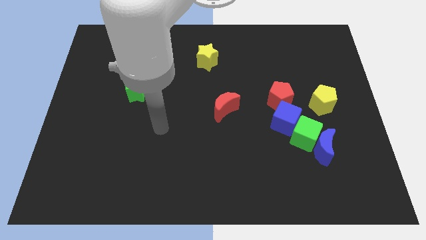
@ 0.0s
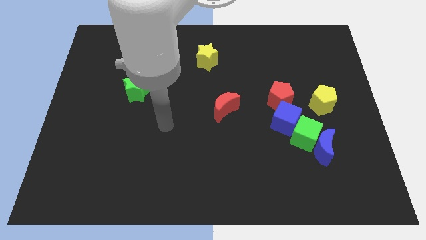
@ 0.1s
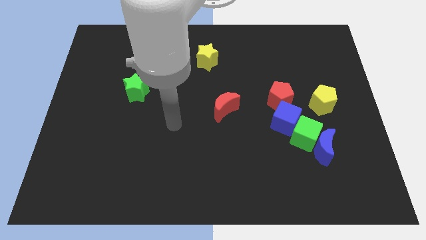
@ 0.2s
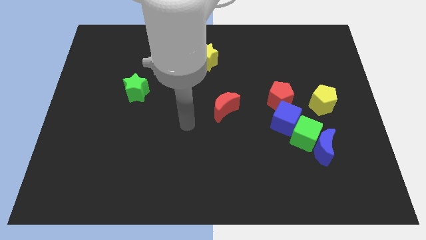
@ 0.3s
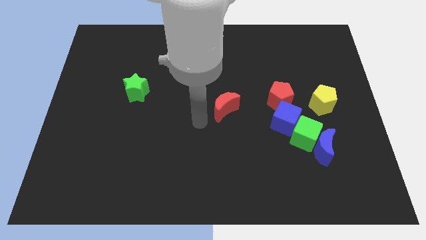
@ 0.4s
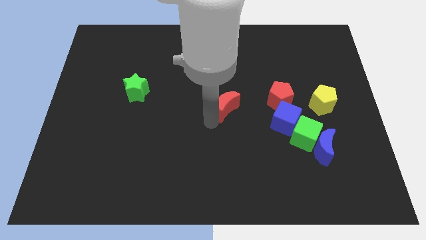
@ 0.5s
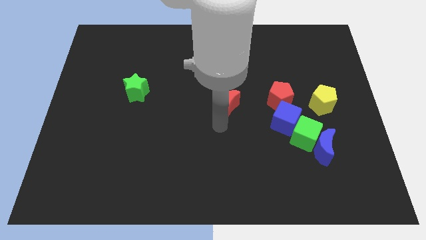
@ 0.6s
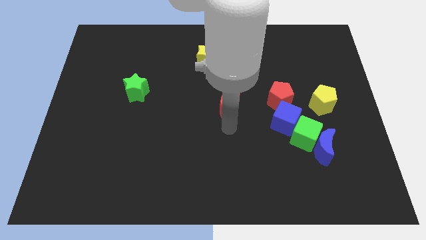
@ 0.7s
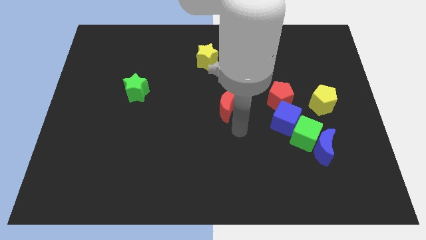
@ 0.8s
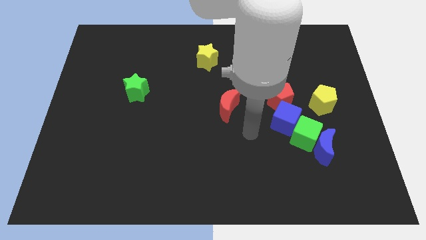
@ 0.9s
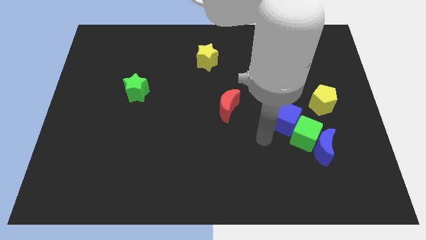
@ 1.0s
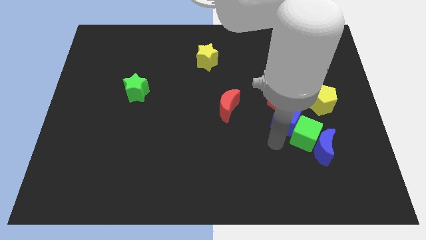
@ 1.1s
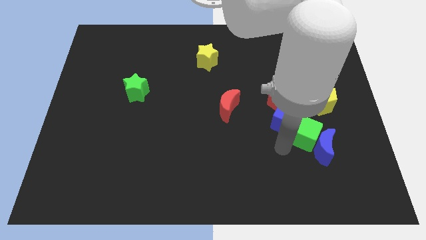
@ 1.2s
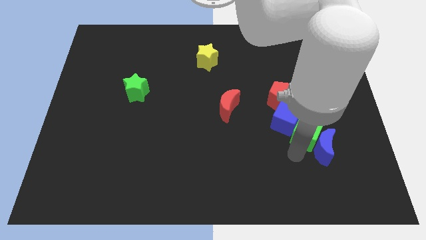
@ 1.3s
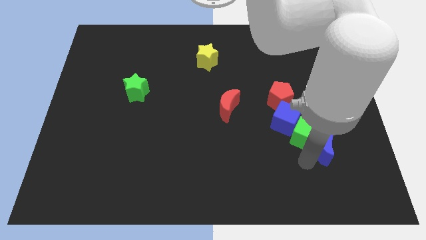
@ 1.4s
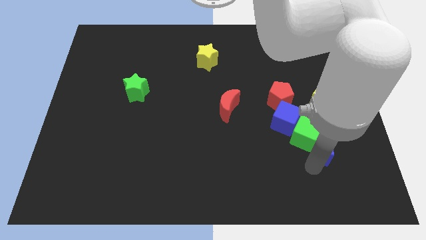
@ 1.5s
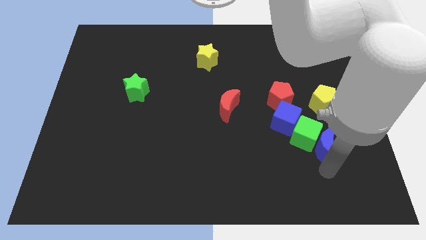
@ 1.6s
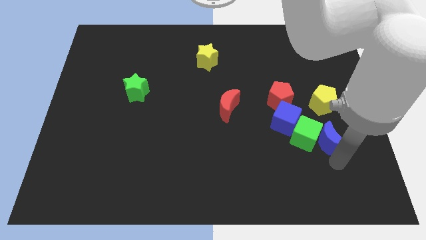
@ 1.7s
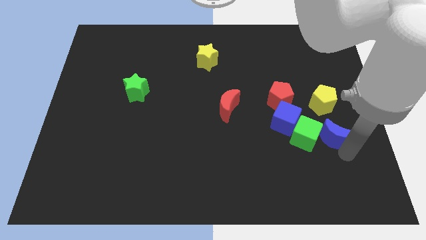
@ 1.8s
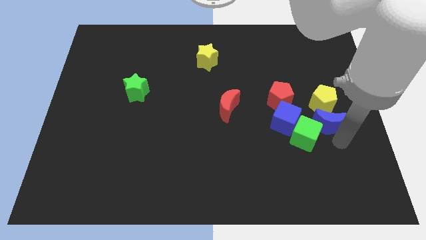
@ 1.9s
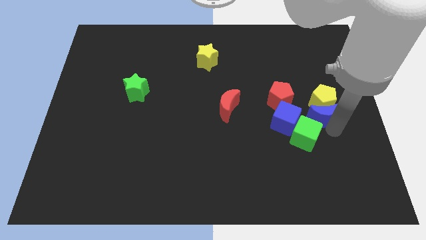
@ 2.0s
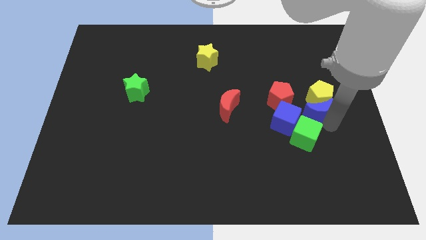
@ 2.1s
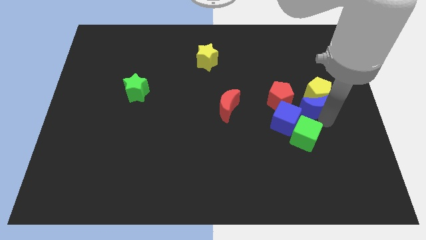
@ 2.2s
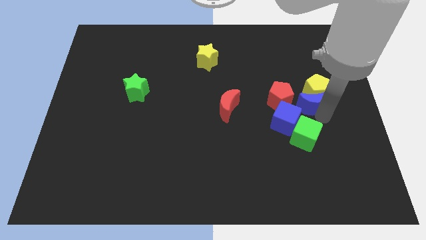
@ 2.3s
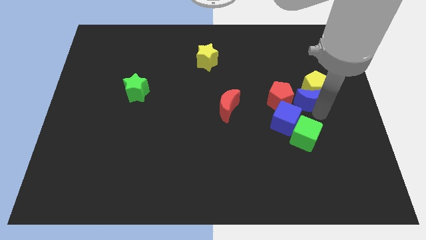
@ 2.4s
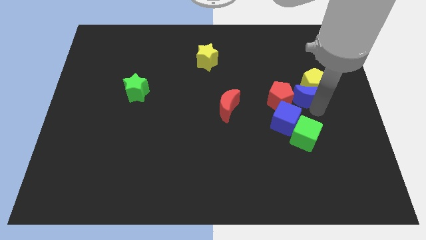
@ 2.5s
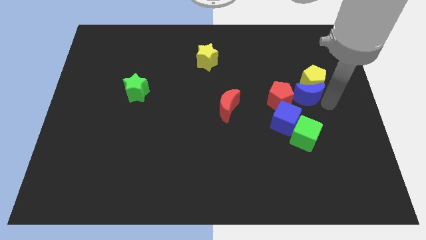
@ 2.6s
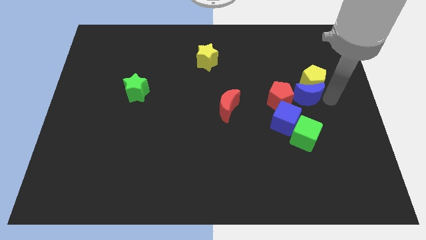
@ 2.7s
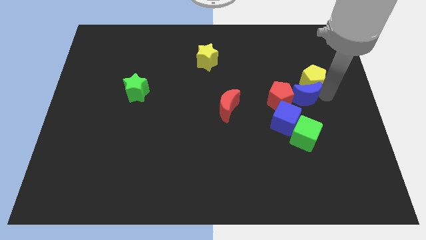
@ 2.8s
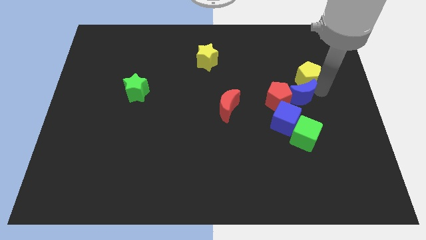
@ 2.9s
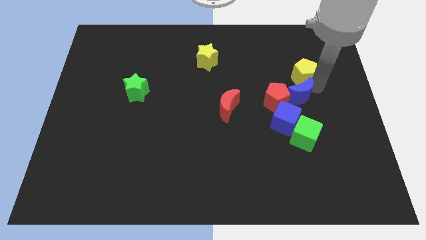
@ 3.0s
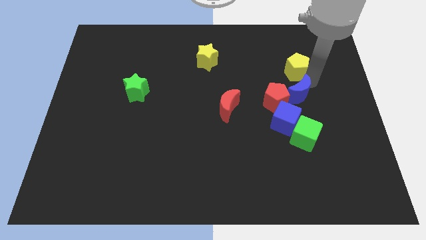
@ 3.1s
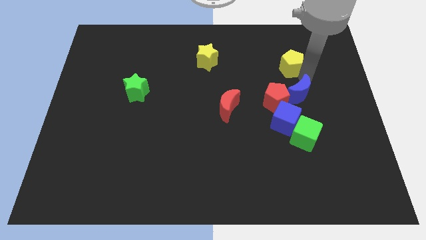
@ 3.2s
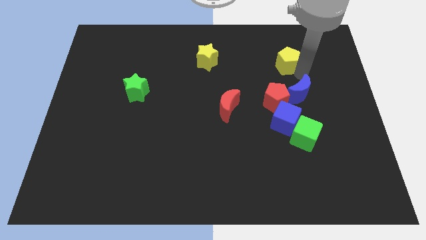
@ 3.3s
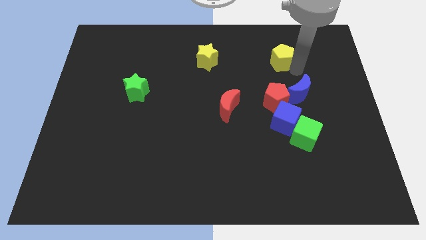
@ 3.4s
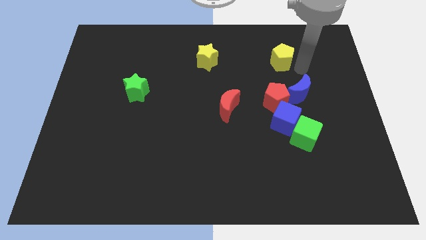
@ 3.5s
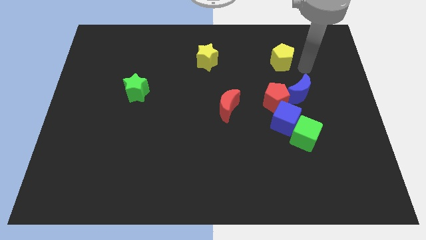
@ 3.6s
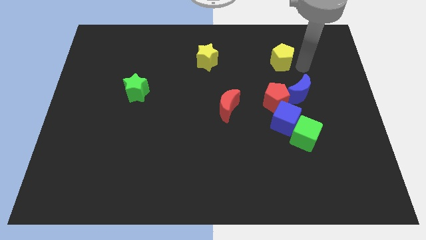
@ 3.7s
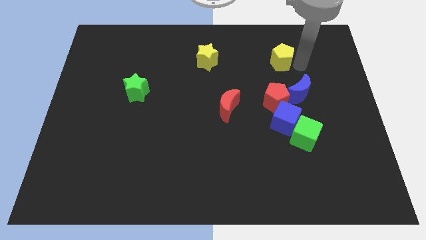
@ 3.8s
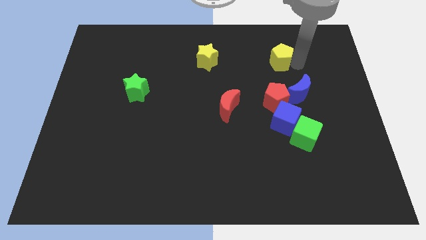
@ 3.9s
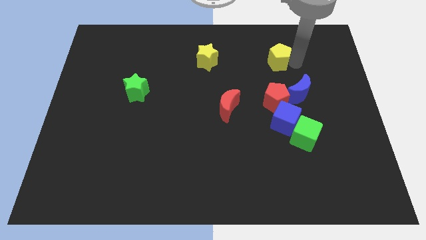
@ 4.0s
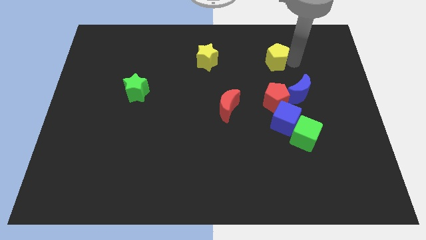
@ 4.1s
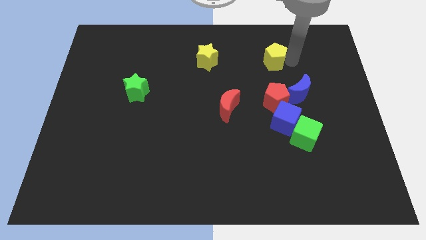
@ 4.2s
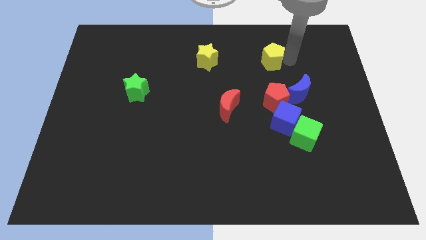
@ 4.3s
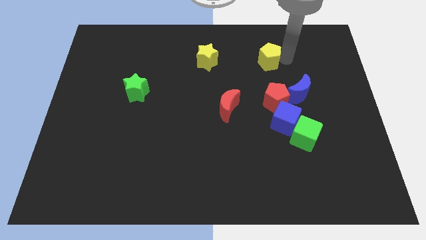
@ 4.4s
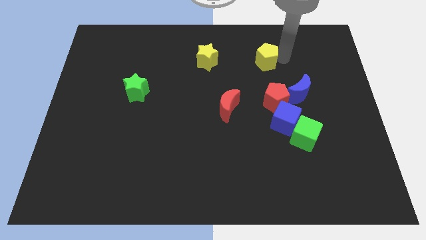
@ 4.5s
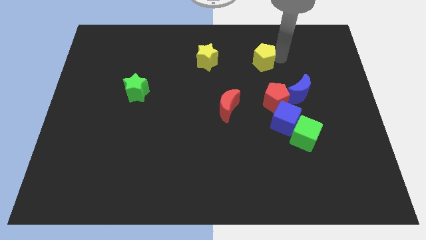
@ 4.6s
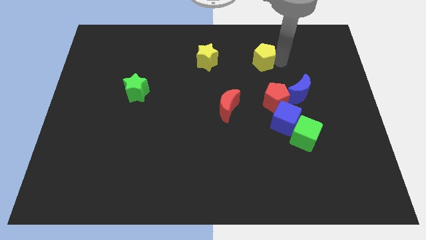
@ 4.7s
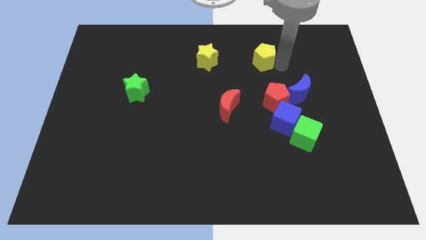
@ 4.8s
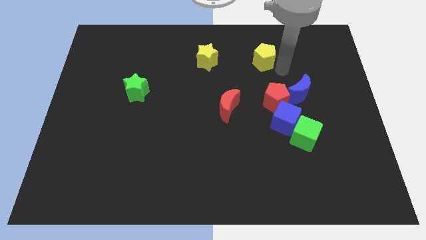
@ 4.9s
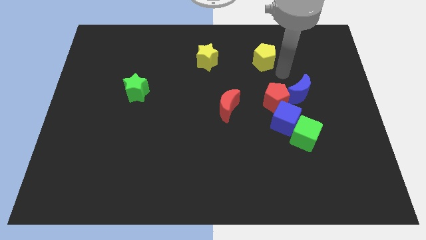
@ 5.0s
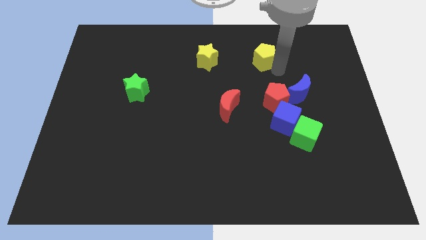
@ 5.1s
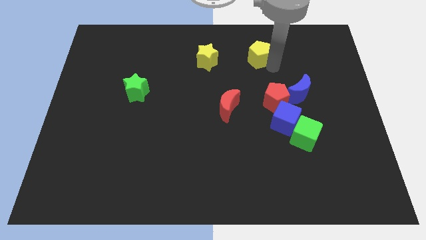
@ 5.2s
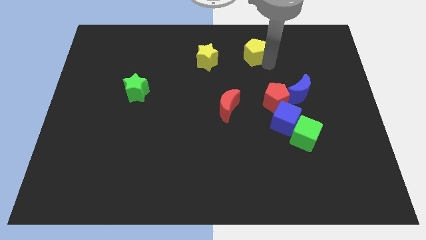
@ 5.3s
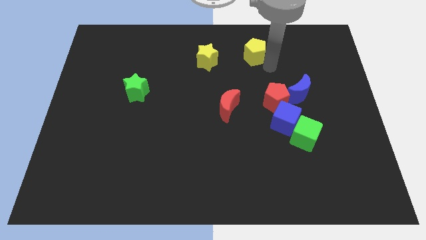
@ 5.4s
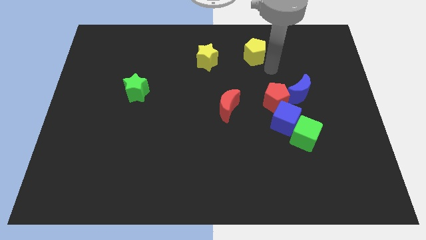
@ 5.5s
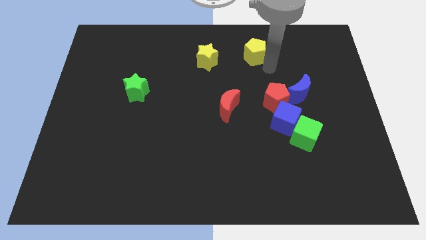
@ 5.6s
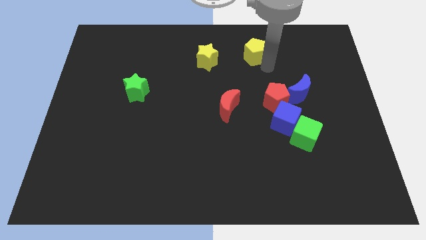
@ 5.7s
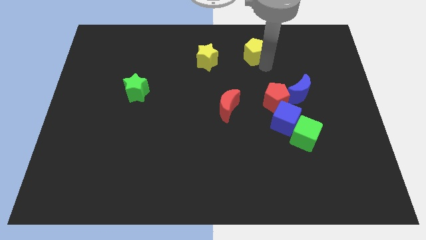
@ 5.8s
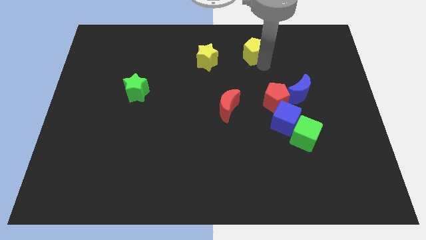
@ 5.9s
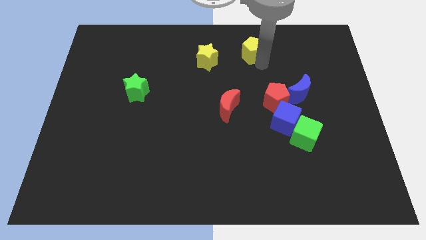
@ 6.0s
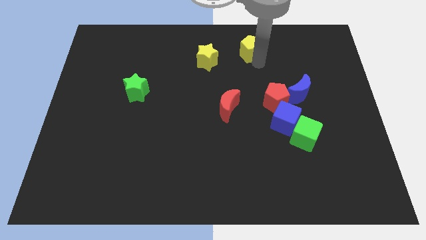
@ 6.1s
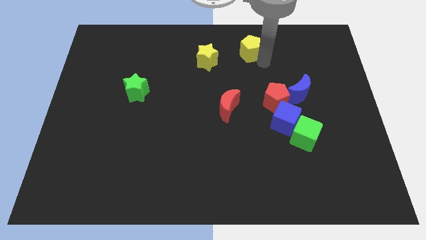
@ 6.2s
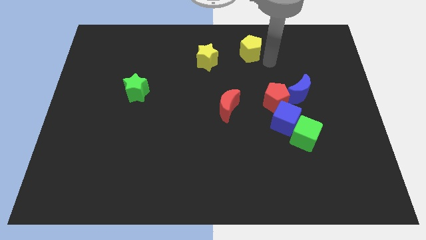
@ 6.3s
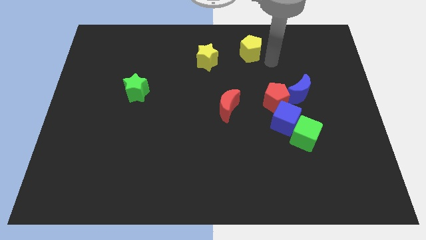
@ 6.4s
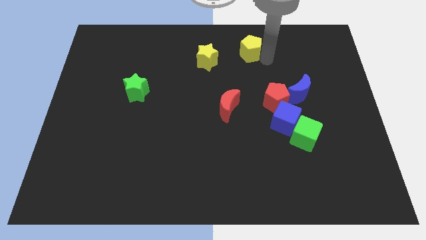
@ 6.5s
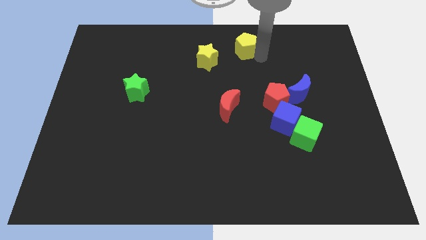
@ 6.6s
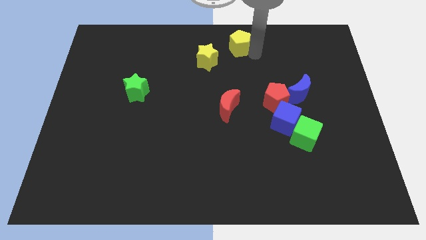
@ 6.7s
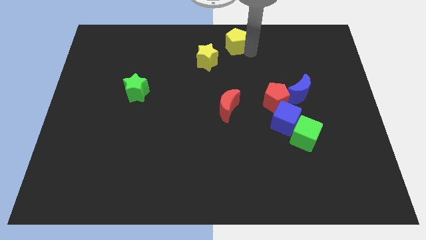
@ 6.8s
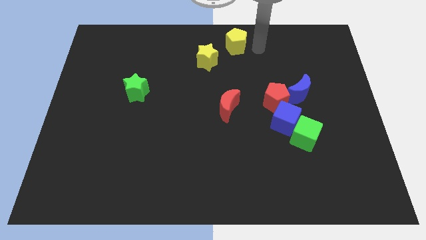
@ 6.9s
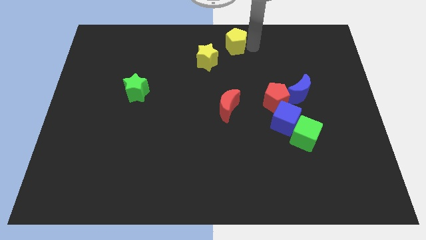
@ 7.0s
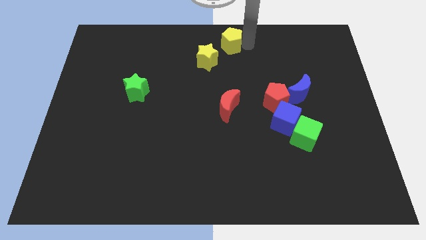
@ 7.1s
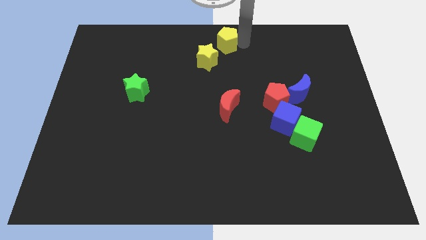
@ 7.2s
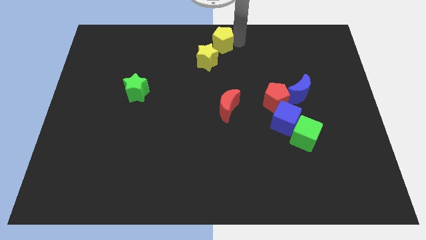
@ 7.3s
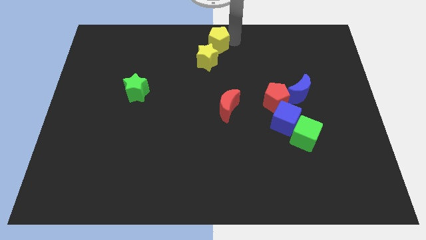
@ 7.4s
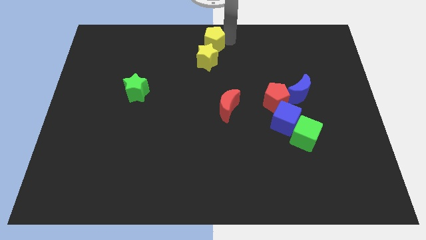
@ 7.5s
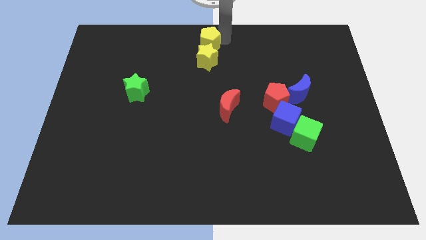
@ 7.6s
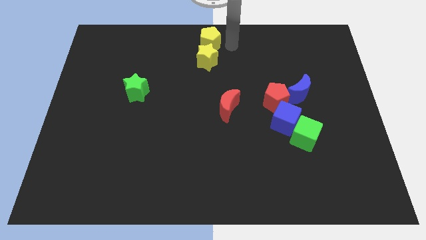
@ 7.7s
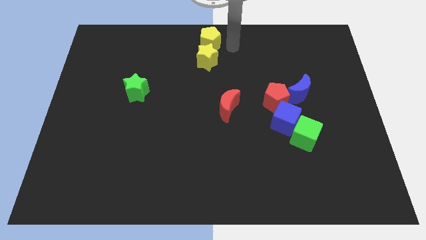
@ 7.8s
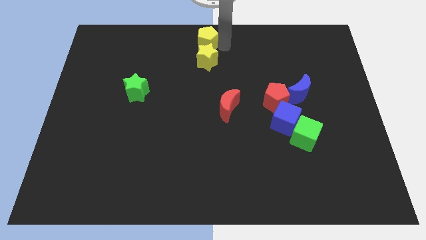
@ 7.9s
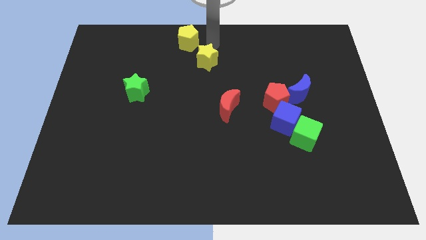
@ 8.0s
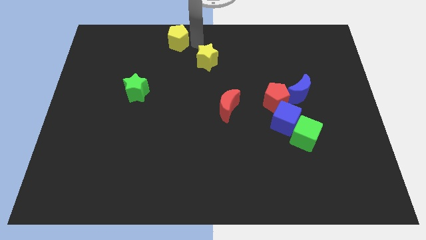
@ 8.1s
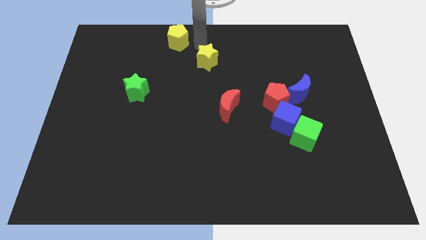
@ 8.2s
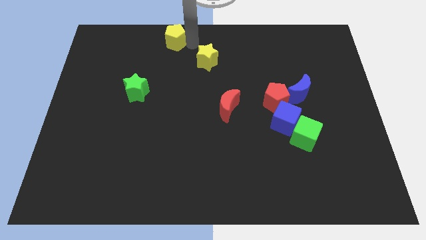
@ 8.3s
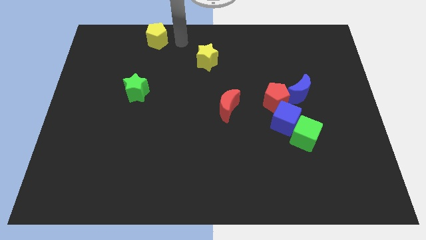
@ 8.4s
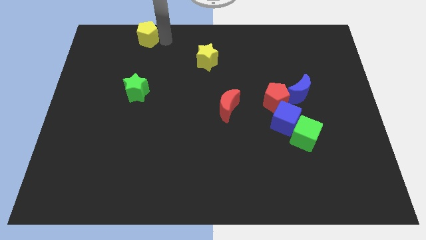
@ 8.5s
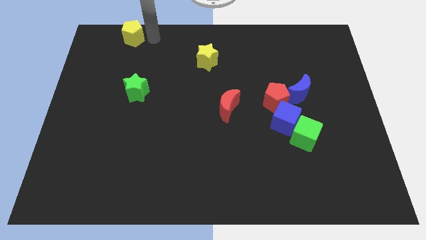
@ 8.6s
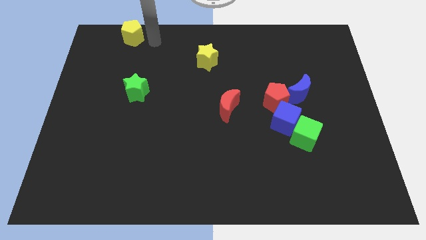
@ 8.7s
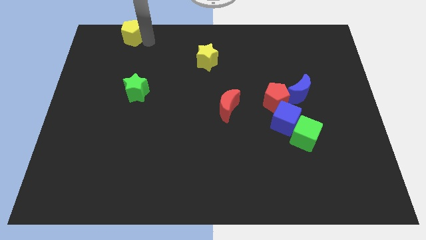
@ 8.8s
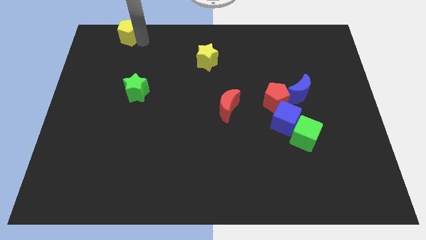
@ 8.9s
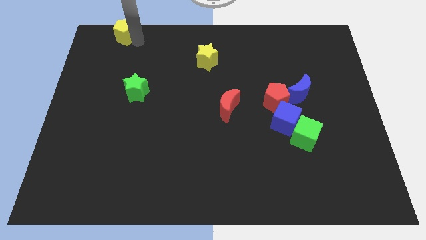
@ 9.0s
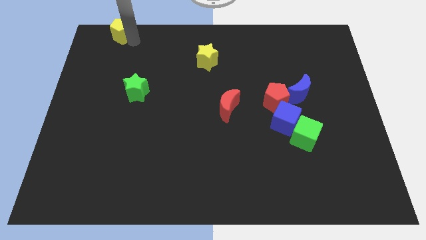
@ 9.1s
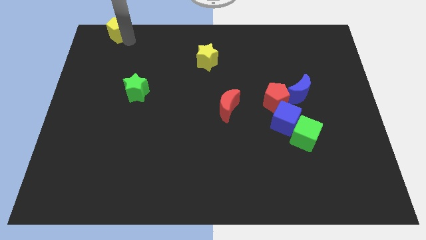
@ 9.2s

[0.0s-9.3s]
slide the yellow pentagon to the upper left corner
